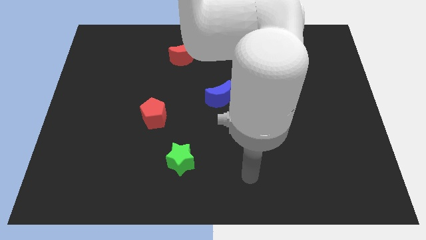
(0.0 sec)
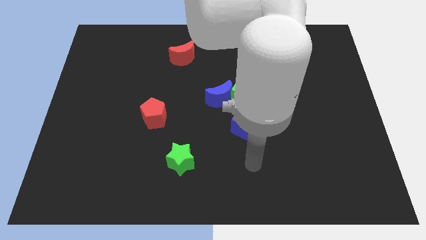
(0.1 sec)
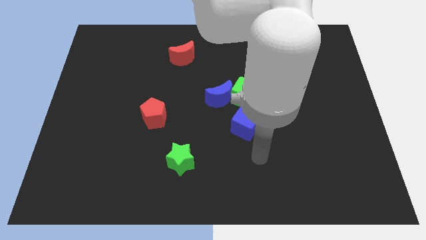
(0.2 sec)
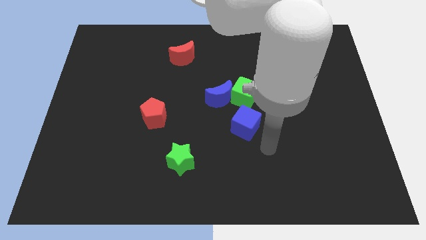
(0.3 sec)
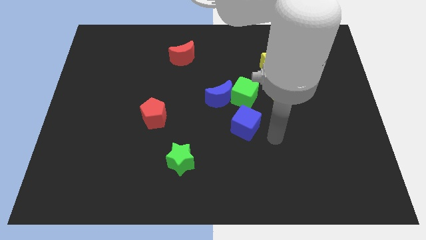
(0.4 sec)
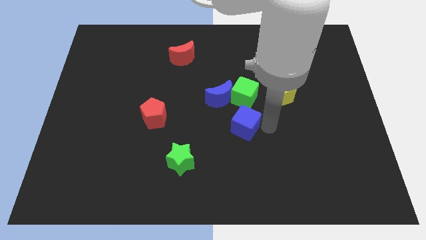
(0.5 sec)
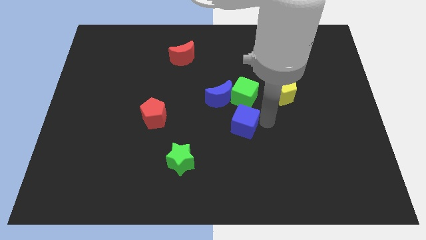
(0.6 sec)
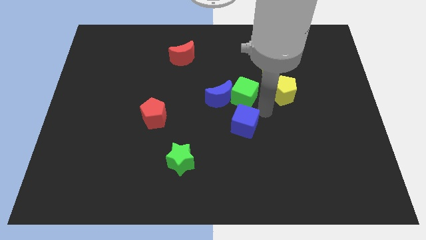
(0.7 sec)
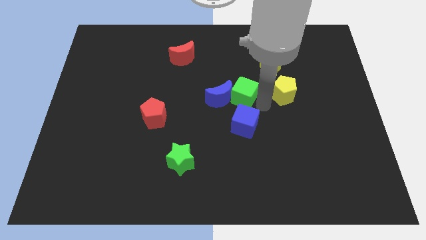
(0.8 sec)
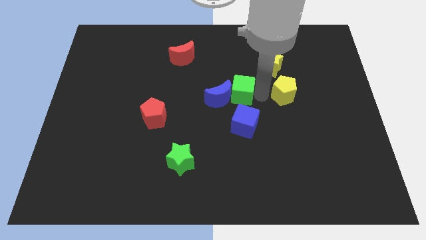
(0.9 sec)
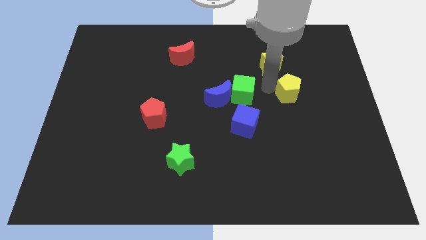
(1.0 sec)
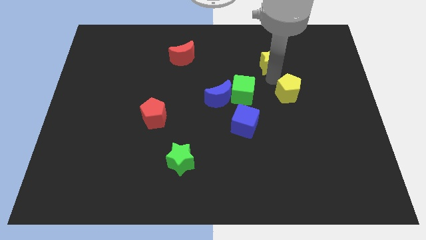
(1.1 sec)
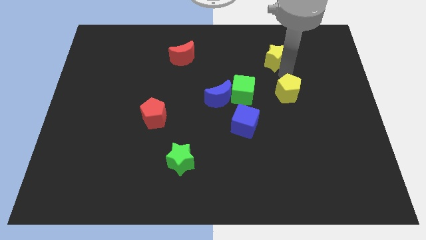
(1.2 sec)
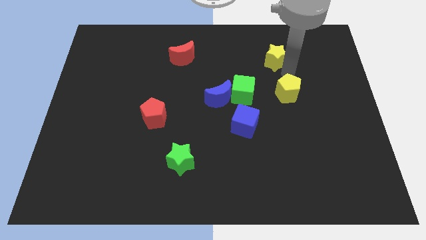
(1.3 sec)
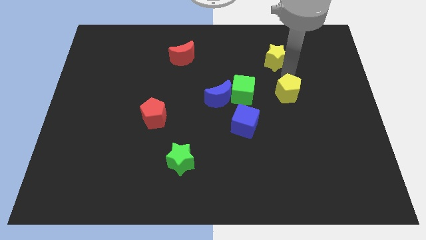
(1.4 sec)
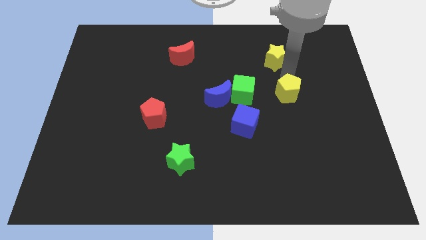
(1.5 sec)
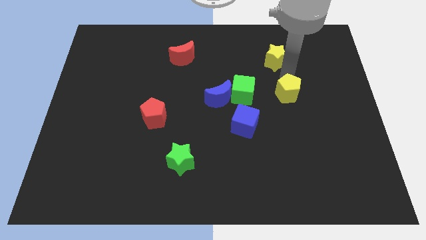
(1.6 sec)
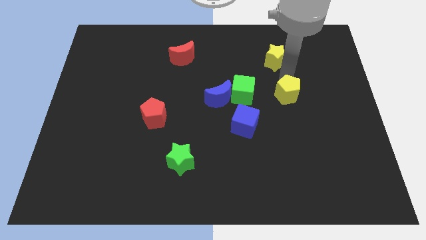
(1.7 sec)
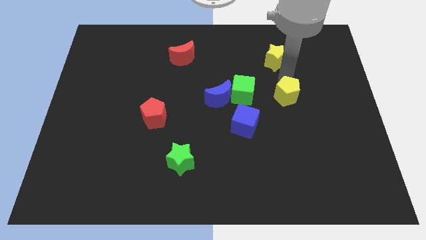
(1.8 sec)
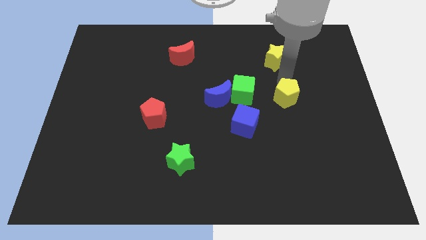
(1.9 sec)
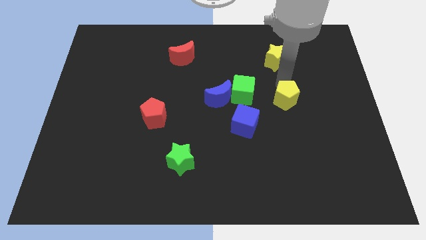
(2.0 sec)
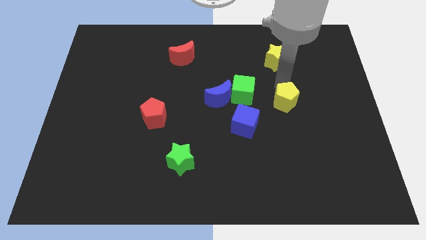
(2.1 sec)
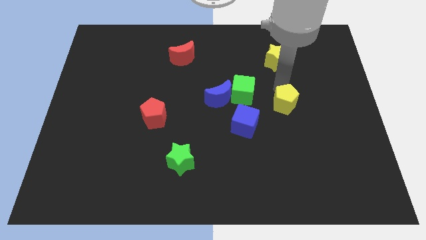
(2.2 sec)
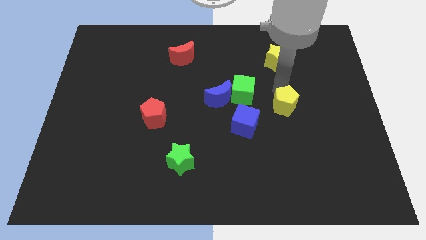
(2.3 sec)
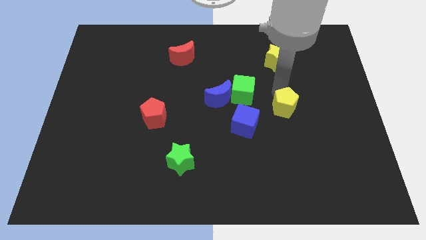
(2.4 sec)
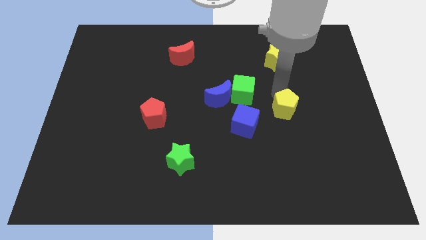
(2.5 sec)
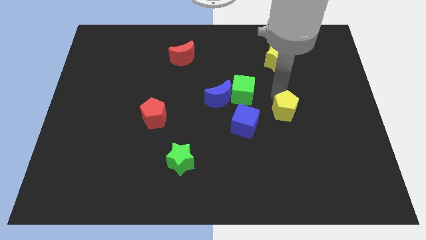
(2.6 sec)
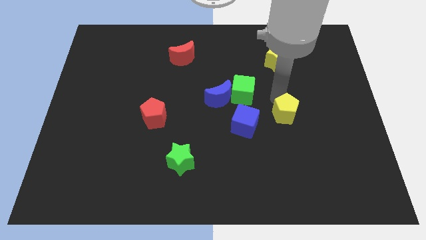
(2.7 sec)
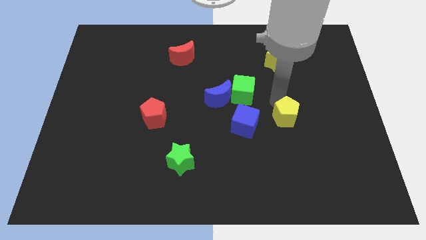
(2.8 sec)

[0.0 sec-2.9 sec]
push the yellow pentagon downwards a little

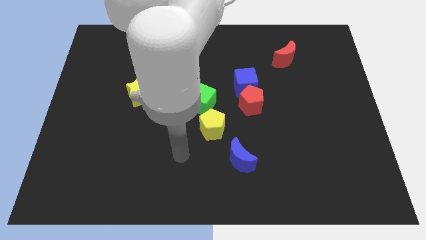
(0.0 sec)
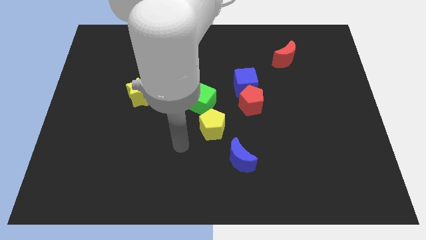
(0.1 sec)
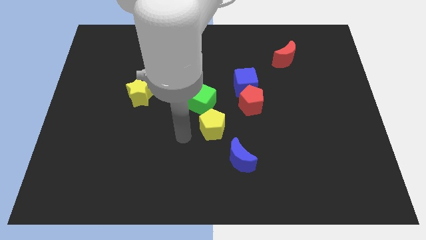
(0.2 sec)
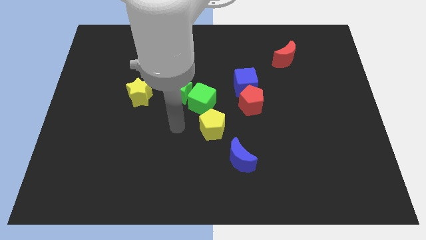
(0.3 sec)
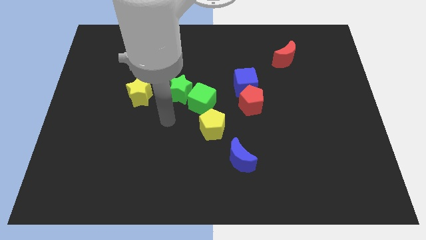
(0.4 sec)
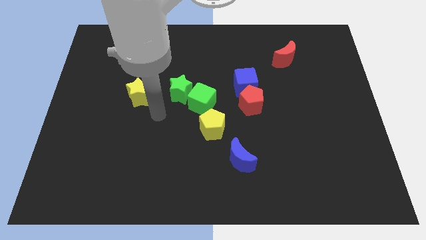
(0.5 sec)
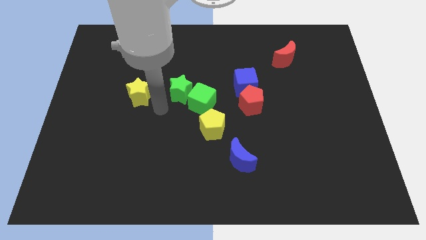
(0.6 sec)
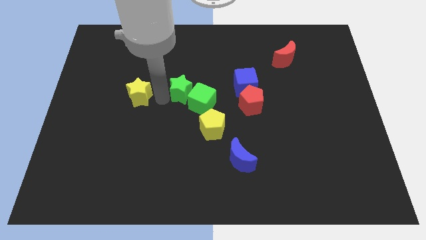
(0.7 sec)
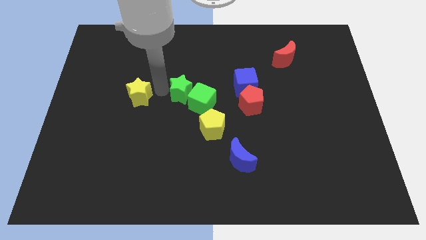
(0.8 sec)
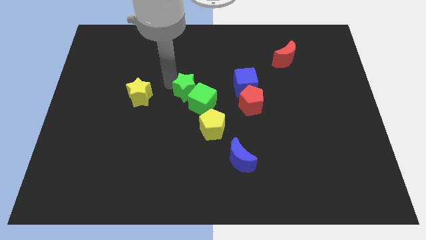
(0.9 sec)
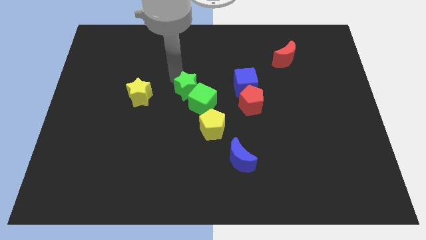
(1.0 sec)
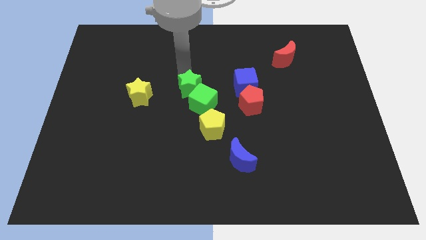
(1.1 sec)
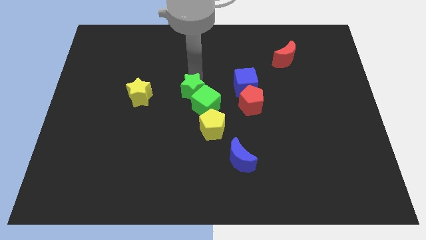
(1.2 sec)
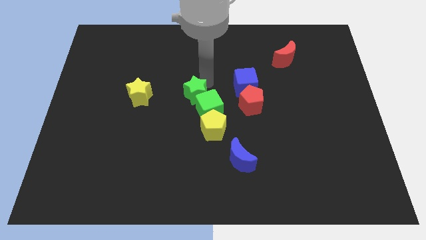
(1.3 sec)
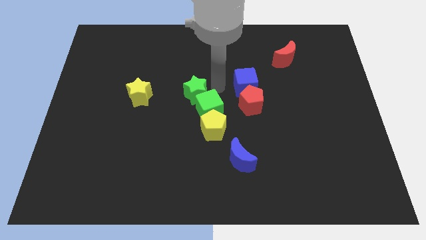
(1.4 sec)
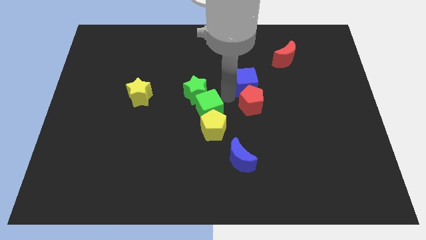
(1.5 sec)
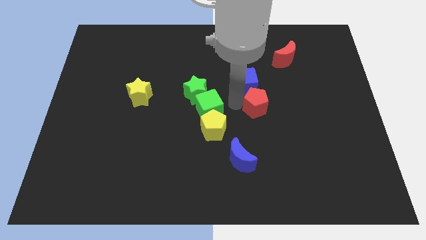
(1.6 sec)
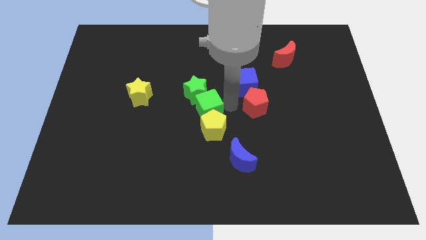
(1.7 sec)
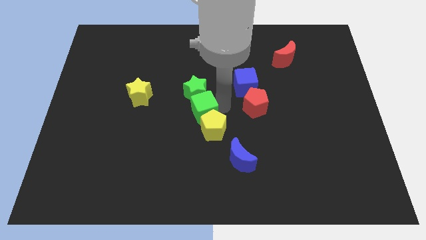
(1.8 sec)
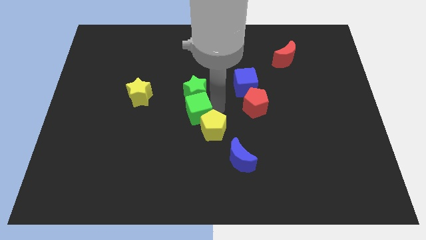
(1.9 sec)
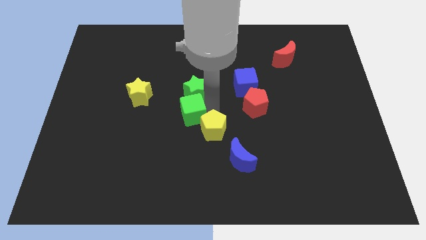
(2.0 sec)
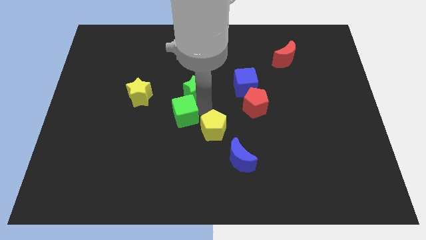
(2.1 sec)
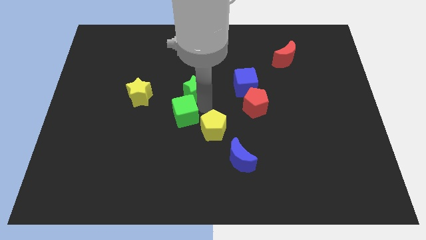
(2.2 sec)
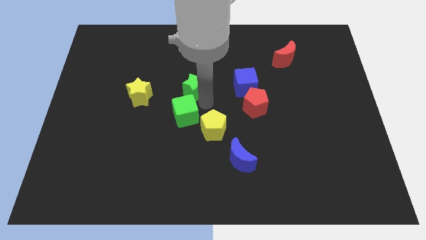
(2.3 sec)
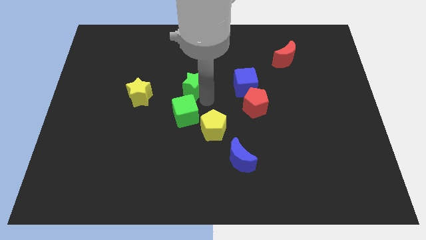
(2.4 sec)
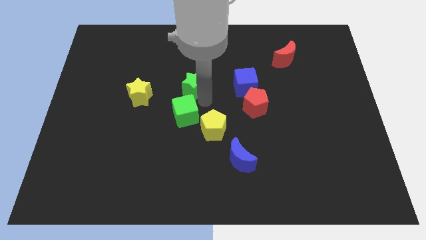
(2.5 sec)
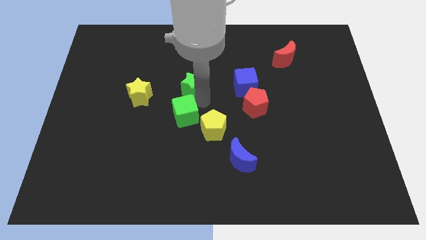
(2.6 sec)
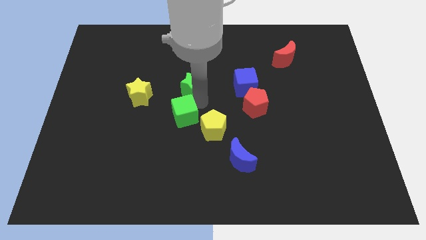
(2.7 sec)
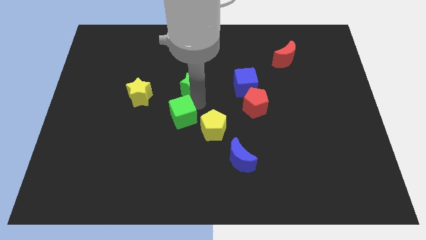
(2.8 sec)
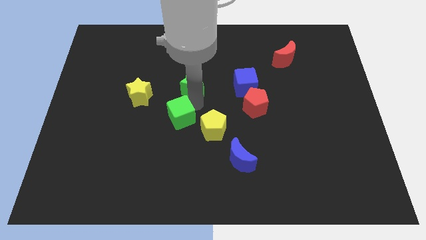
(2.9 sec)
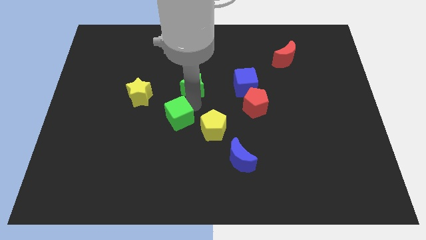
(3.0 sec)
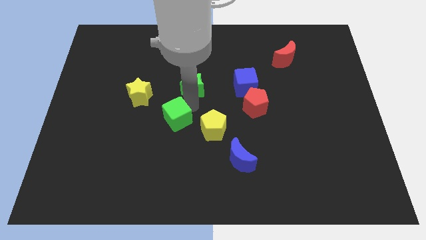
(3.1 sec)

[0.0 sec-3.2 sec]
move the green cube a little bit down and left

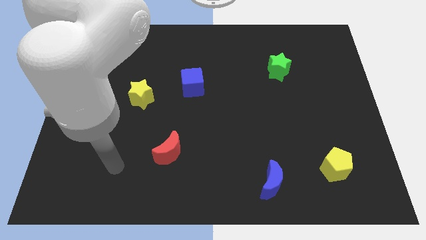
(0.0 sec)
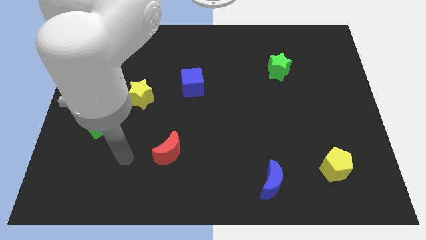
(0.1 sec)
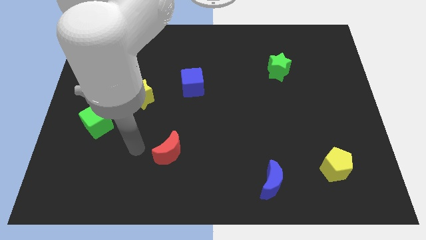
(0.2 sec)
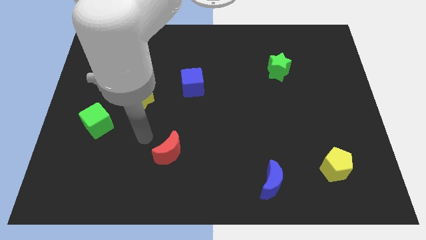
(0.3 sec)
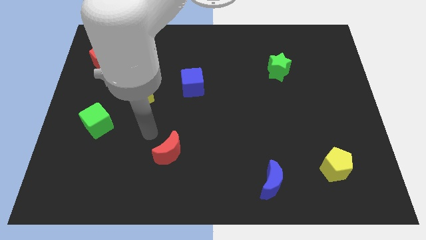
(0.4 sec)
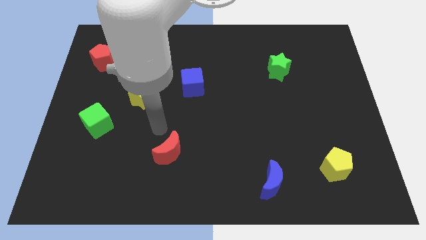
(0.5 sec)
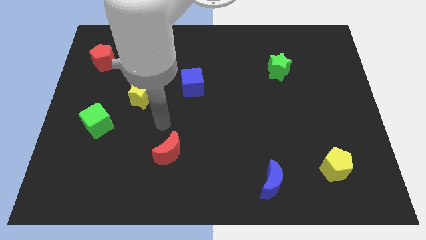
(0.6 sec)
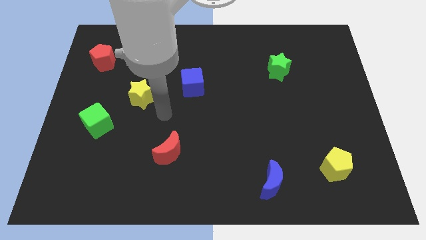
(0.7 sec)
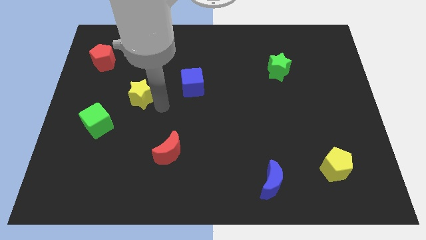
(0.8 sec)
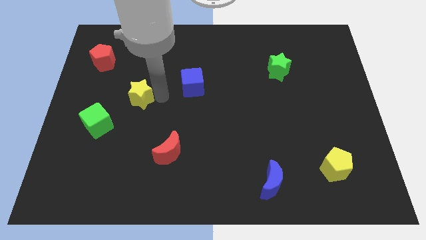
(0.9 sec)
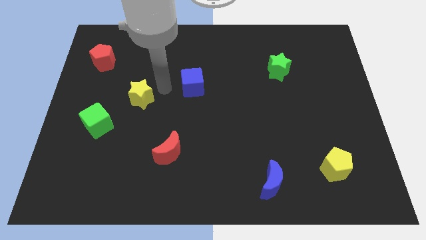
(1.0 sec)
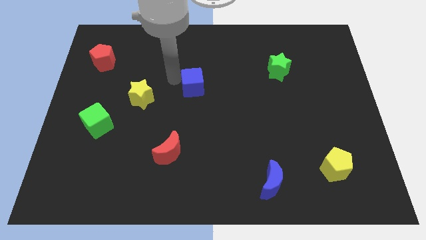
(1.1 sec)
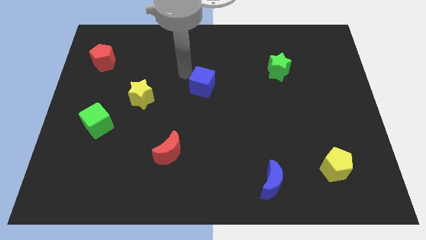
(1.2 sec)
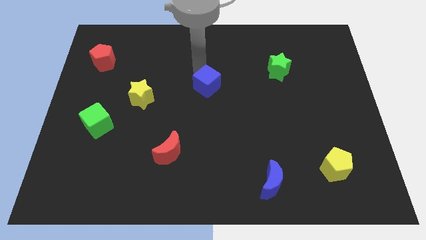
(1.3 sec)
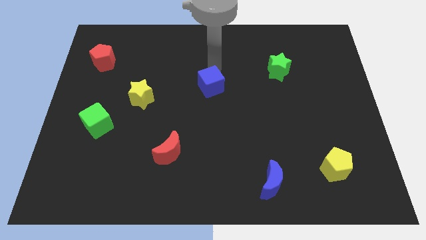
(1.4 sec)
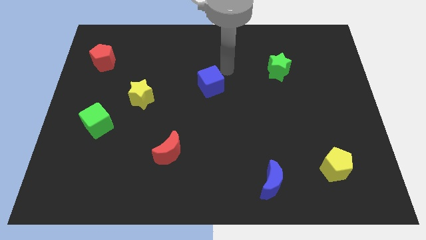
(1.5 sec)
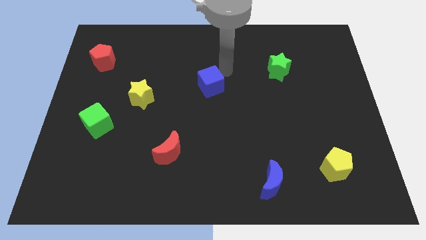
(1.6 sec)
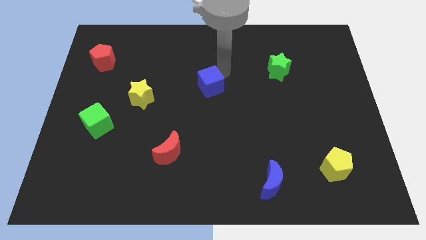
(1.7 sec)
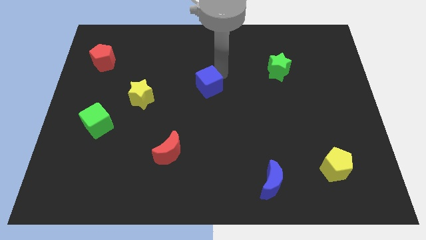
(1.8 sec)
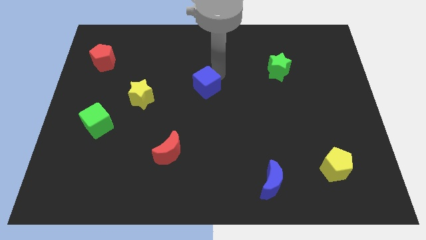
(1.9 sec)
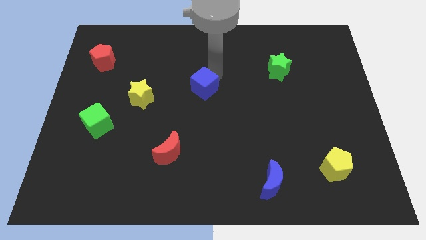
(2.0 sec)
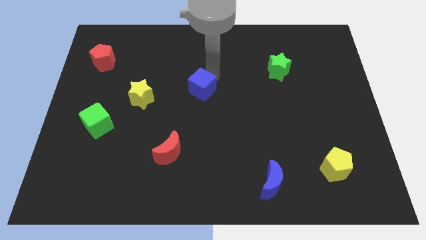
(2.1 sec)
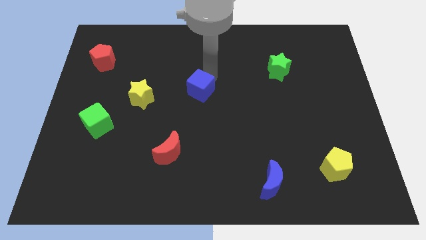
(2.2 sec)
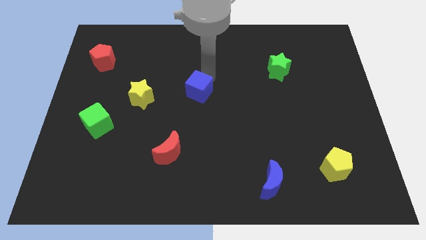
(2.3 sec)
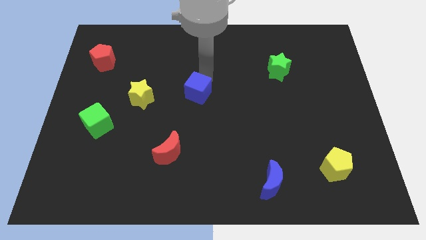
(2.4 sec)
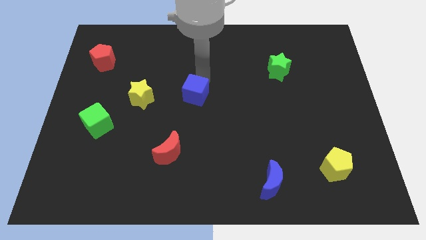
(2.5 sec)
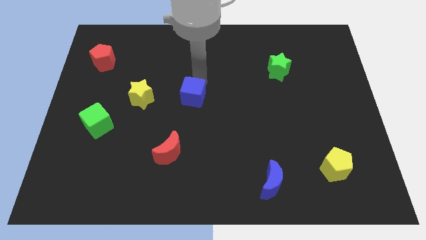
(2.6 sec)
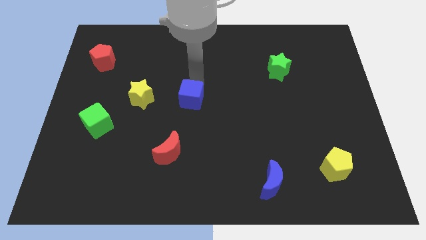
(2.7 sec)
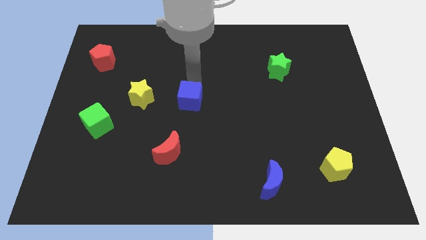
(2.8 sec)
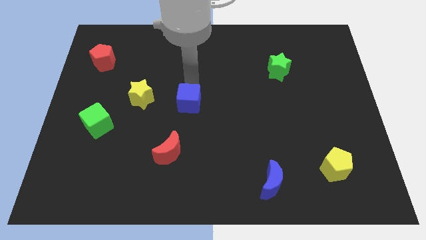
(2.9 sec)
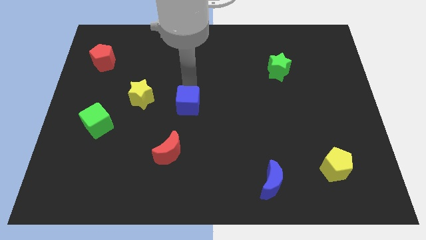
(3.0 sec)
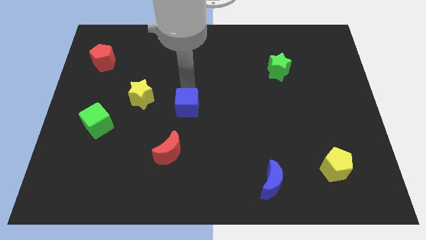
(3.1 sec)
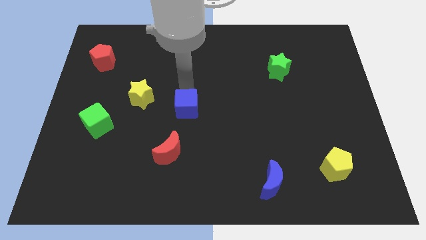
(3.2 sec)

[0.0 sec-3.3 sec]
move the blue cube down a bit
